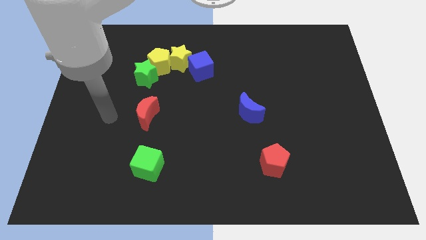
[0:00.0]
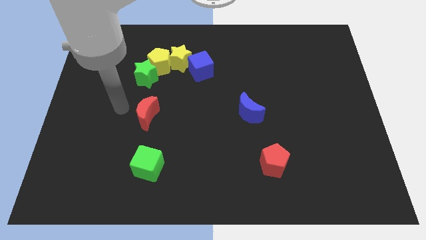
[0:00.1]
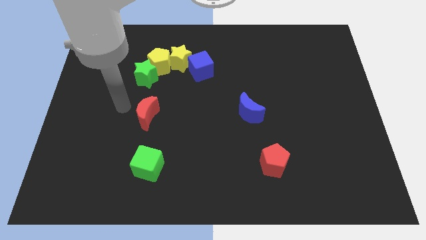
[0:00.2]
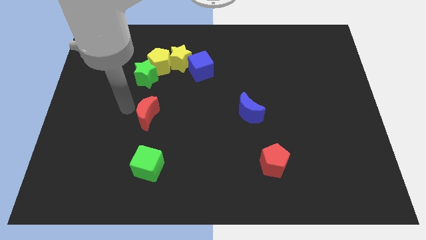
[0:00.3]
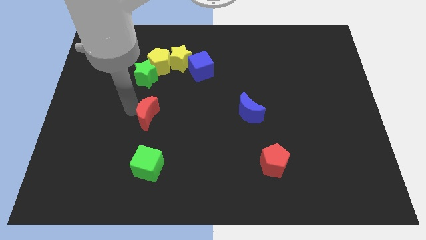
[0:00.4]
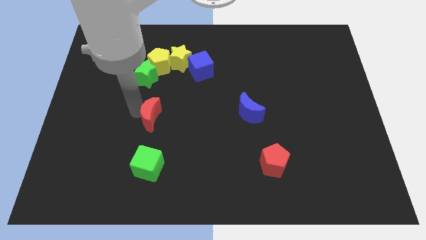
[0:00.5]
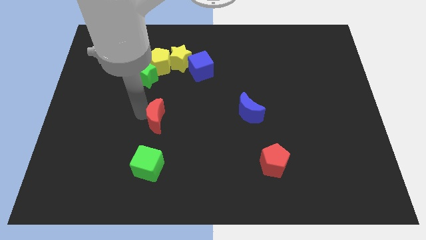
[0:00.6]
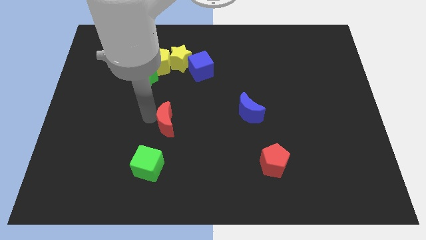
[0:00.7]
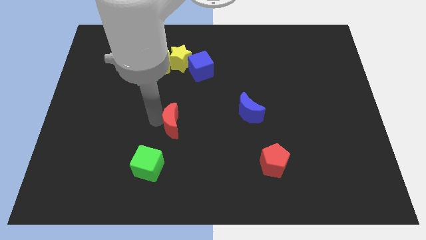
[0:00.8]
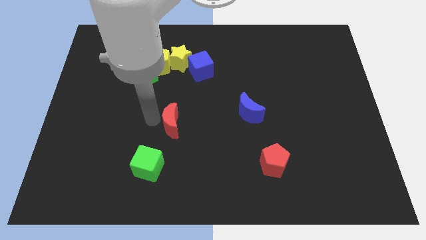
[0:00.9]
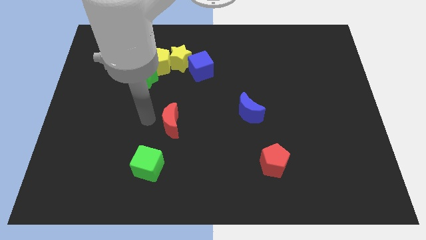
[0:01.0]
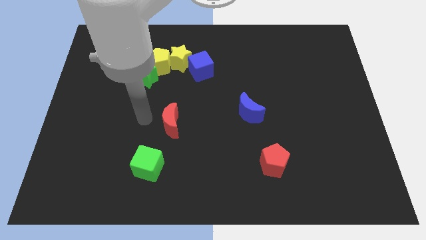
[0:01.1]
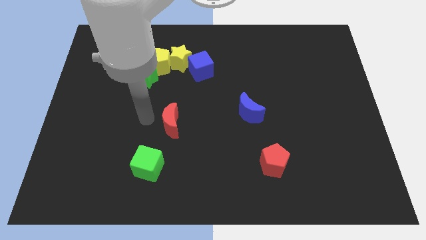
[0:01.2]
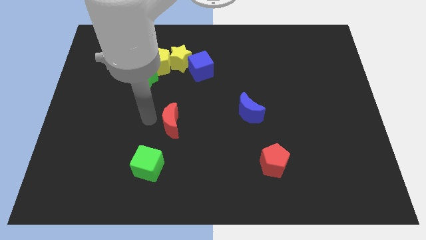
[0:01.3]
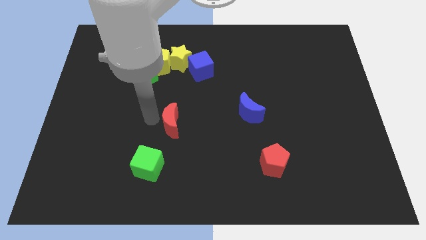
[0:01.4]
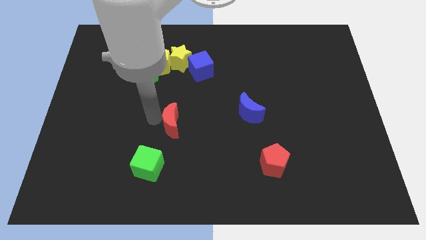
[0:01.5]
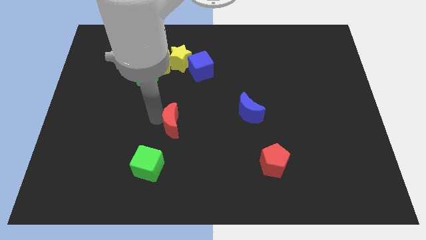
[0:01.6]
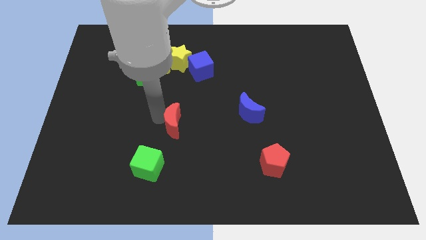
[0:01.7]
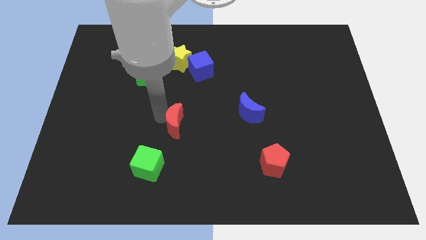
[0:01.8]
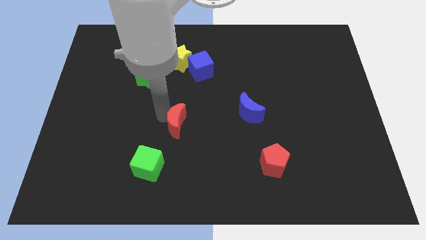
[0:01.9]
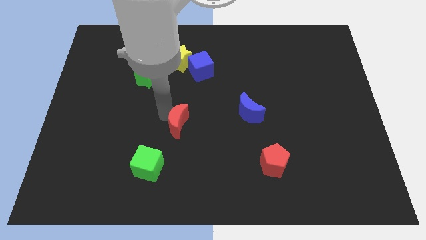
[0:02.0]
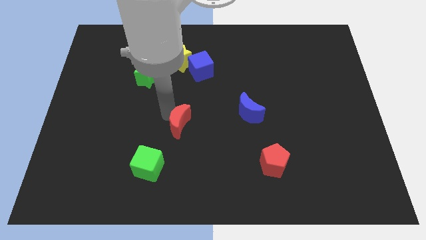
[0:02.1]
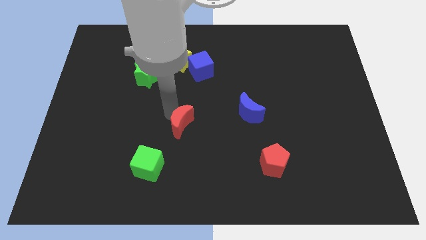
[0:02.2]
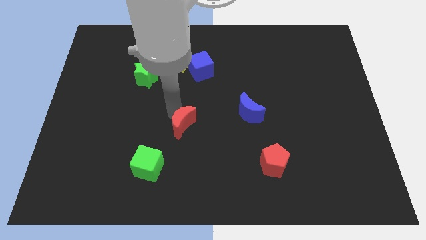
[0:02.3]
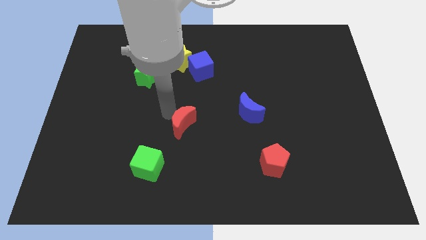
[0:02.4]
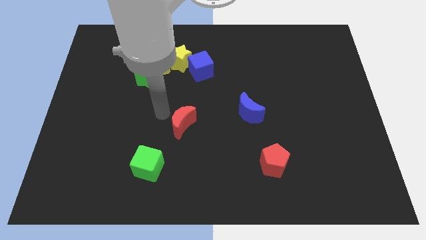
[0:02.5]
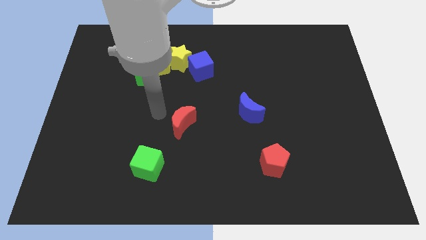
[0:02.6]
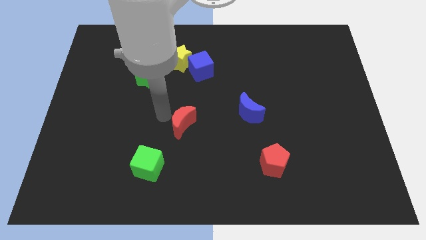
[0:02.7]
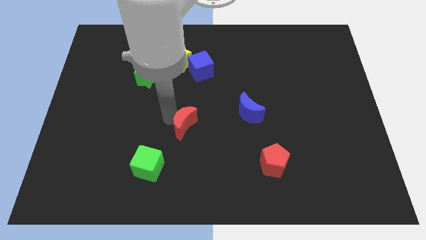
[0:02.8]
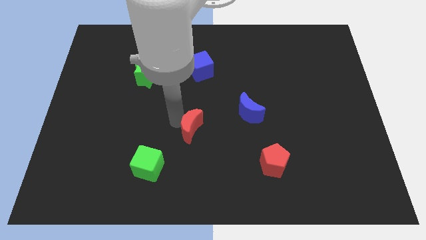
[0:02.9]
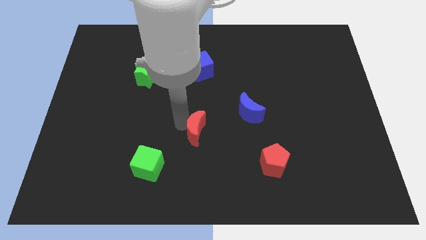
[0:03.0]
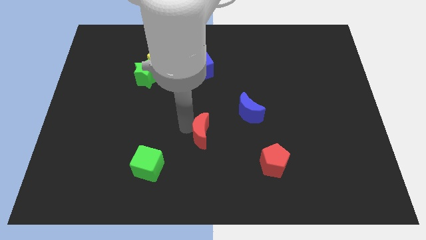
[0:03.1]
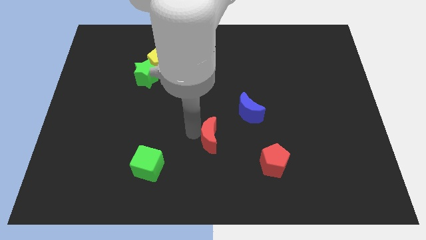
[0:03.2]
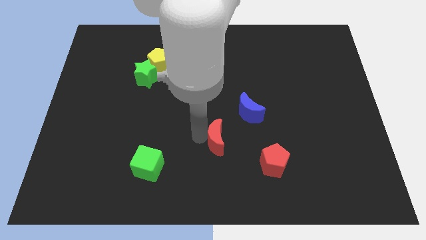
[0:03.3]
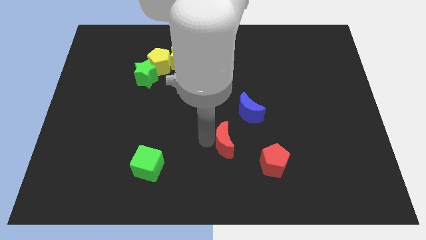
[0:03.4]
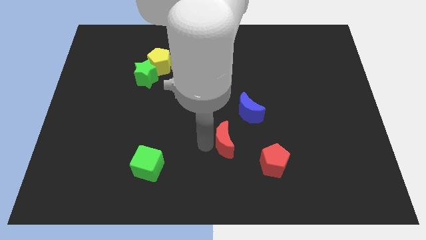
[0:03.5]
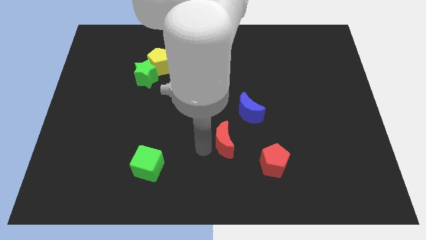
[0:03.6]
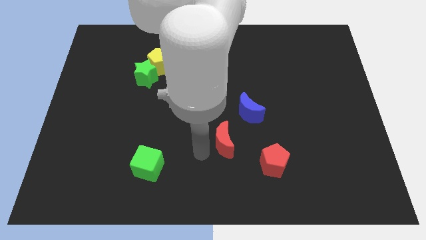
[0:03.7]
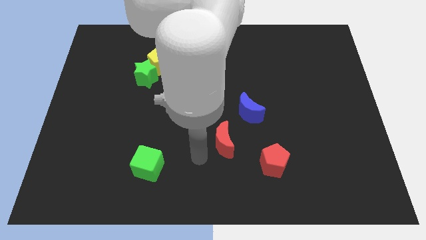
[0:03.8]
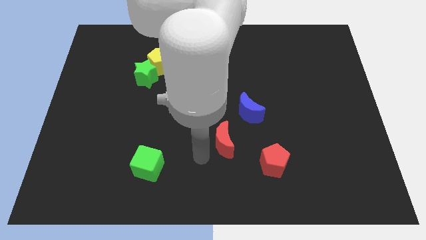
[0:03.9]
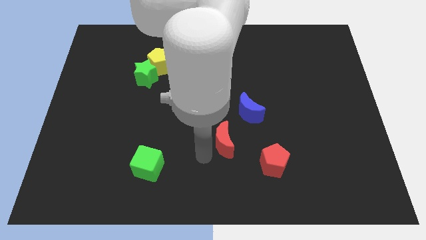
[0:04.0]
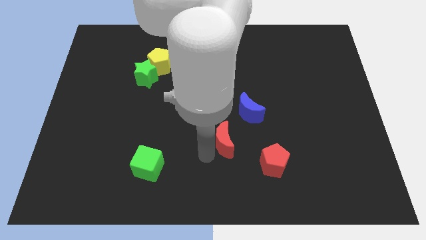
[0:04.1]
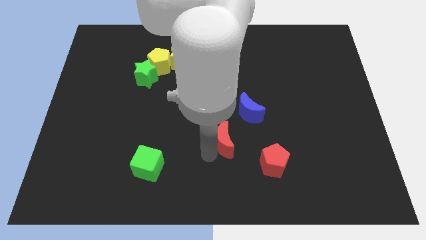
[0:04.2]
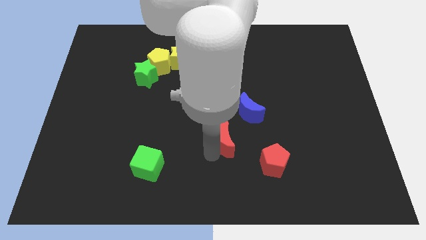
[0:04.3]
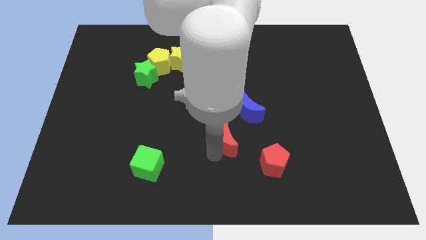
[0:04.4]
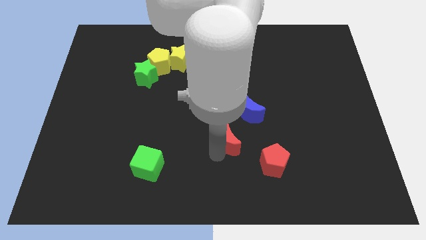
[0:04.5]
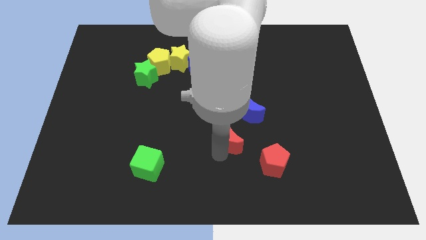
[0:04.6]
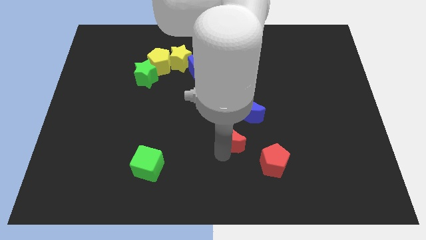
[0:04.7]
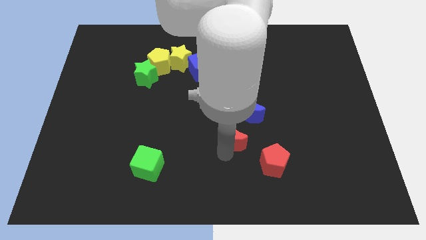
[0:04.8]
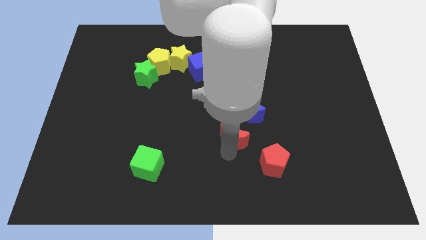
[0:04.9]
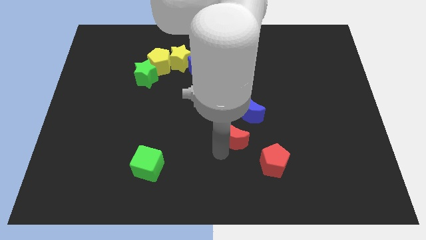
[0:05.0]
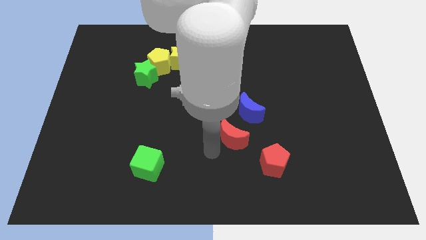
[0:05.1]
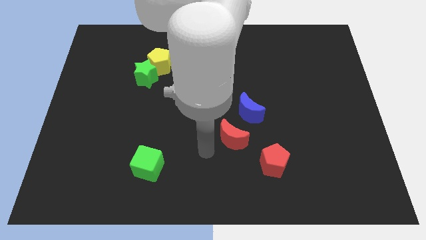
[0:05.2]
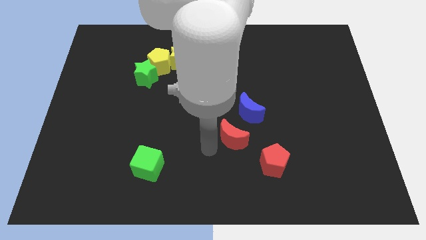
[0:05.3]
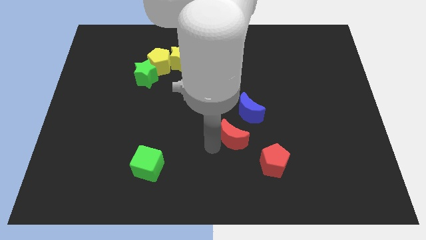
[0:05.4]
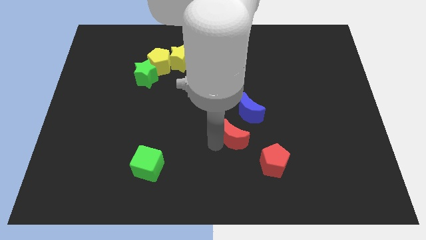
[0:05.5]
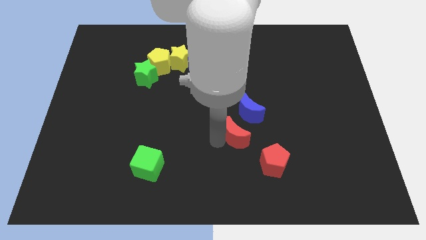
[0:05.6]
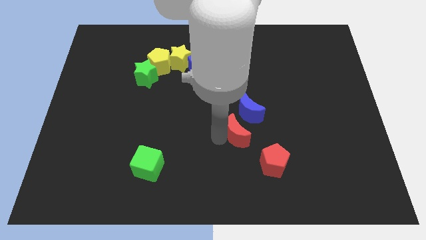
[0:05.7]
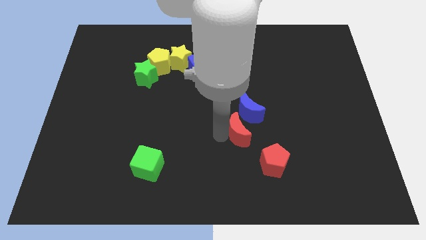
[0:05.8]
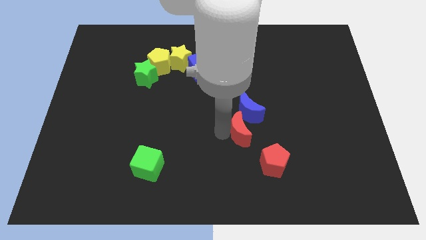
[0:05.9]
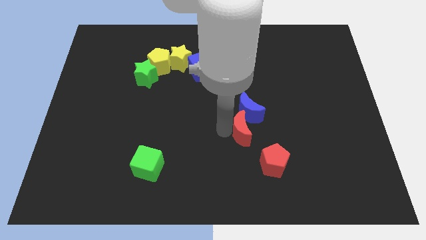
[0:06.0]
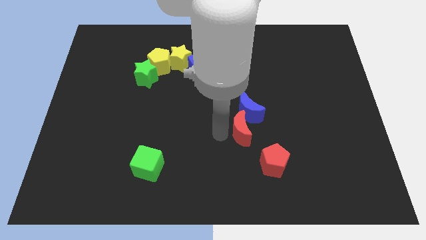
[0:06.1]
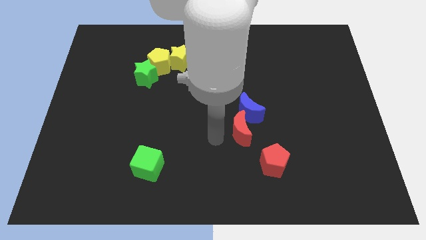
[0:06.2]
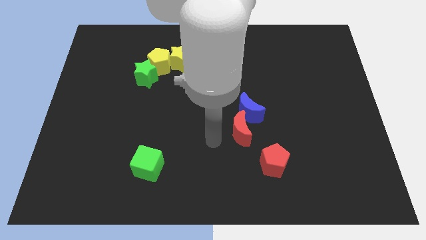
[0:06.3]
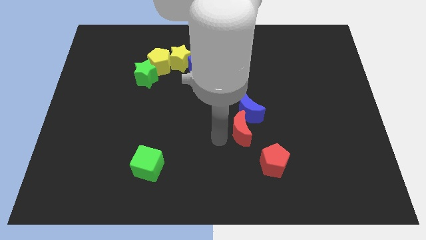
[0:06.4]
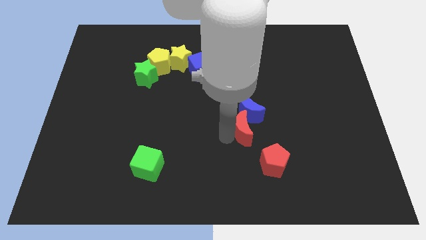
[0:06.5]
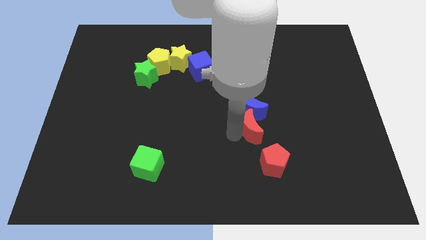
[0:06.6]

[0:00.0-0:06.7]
move the red moon to the top of the red pentagon

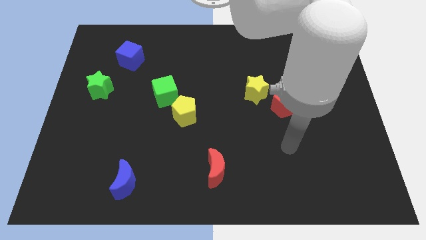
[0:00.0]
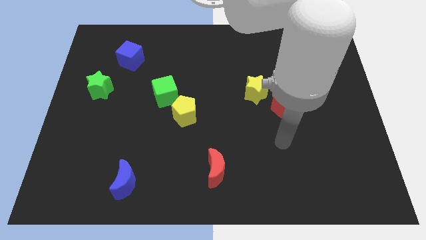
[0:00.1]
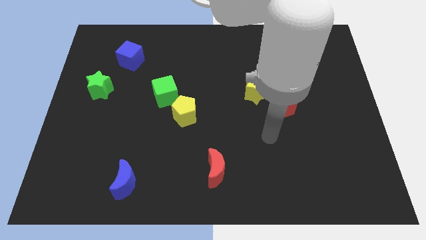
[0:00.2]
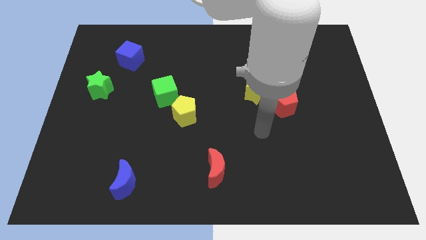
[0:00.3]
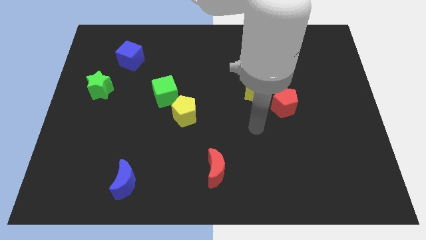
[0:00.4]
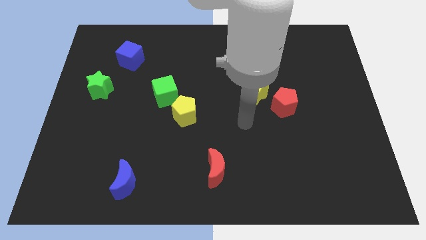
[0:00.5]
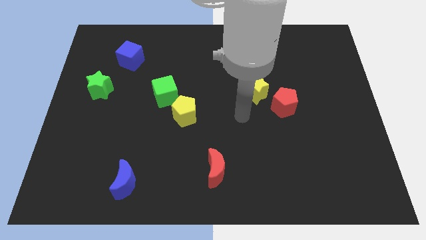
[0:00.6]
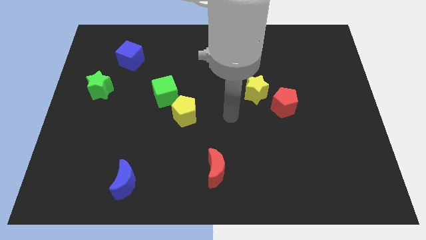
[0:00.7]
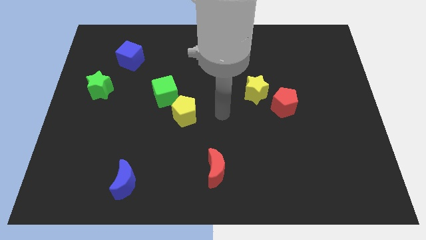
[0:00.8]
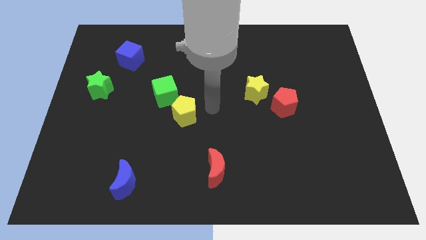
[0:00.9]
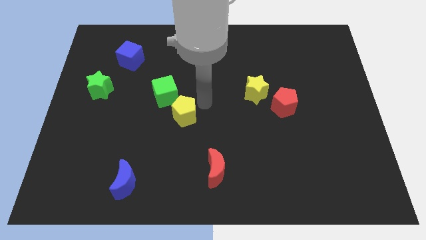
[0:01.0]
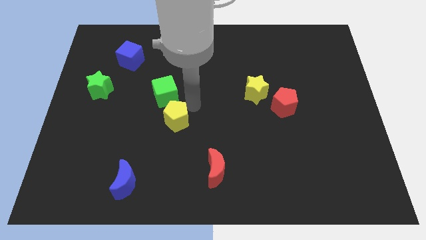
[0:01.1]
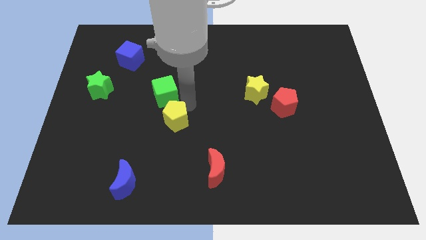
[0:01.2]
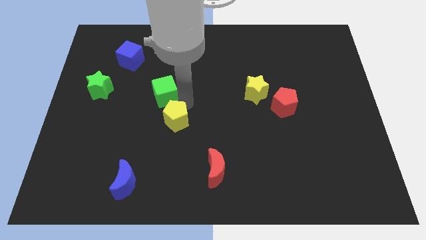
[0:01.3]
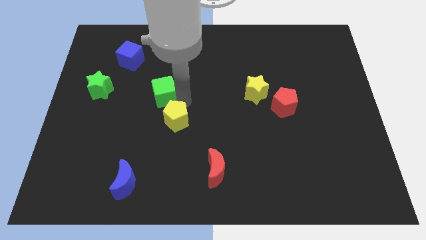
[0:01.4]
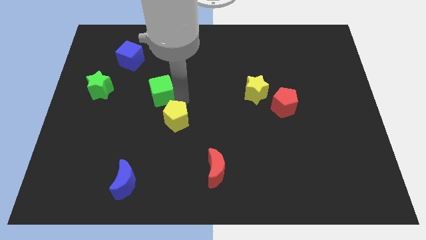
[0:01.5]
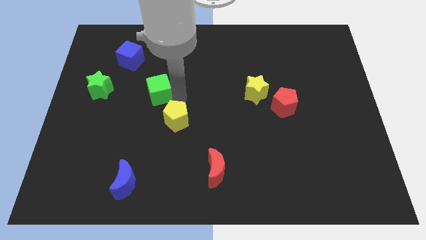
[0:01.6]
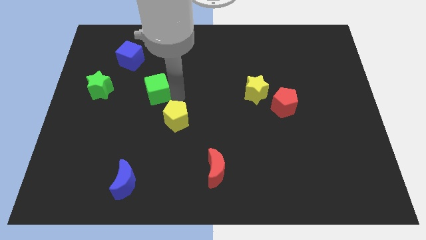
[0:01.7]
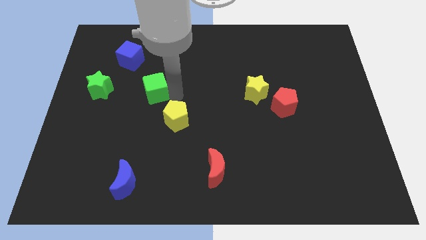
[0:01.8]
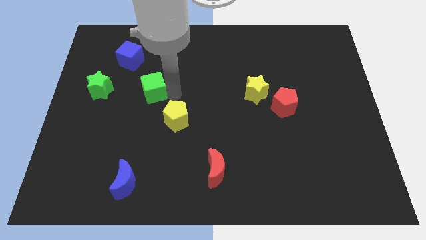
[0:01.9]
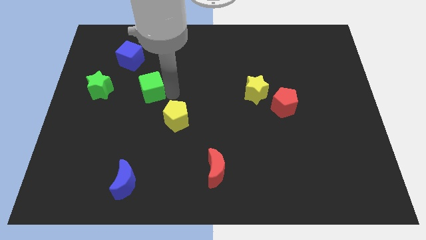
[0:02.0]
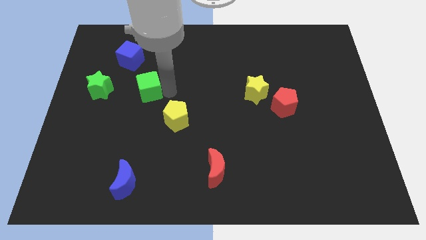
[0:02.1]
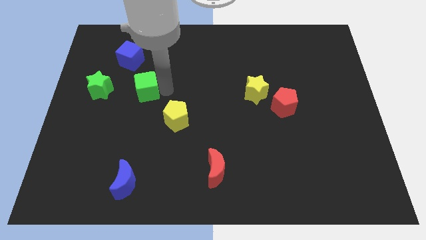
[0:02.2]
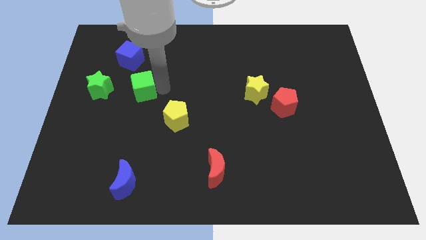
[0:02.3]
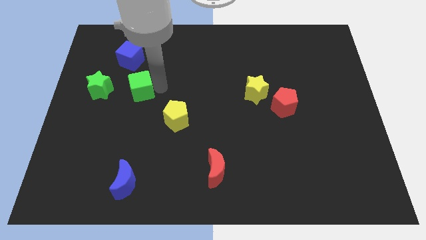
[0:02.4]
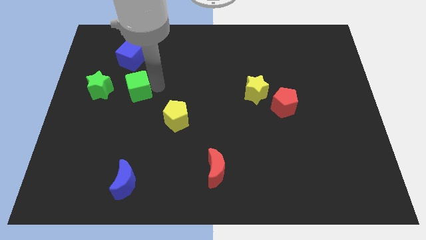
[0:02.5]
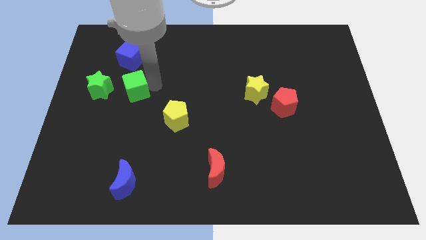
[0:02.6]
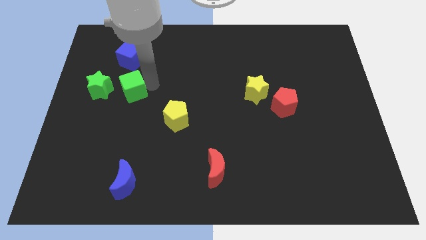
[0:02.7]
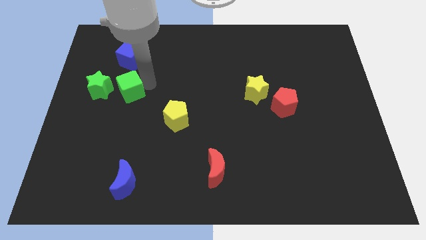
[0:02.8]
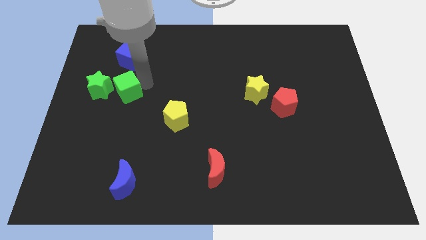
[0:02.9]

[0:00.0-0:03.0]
put the green cube to the top right of the green star
